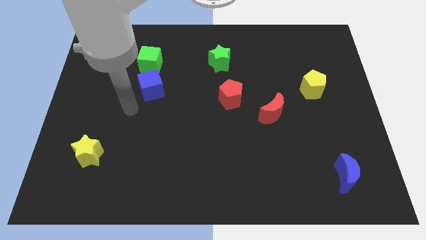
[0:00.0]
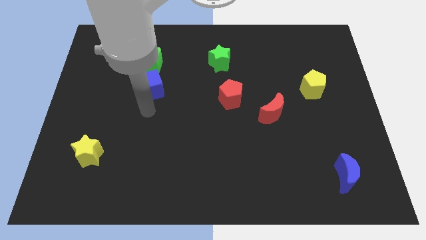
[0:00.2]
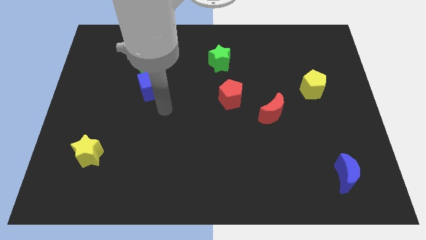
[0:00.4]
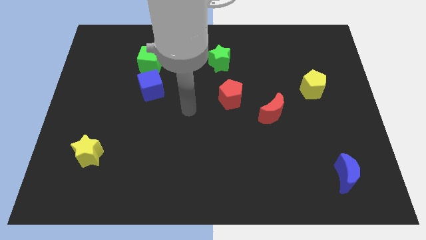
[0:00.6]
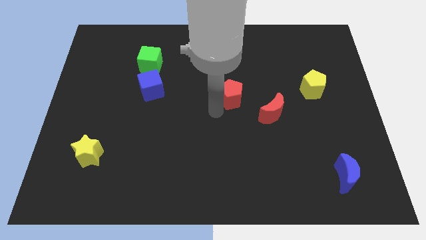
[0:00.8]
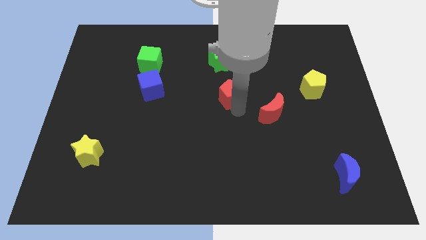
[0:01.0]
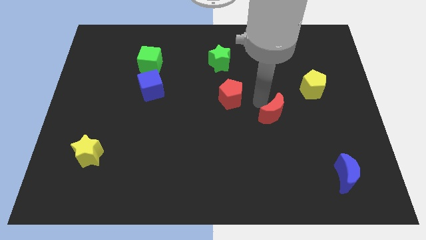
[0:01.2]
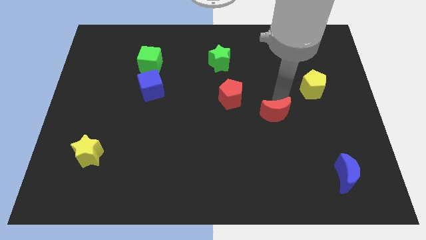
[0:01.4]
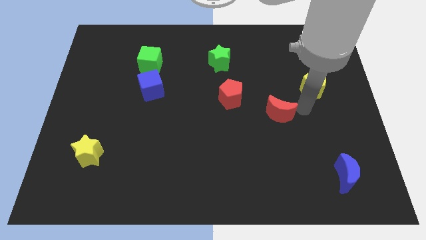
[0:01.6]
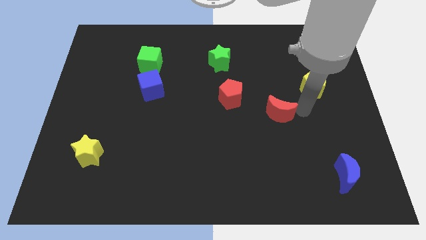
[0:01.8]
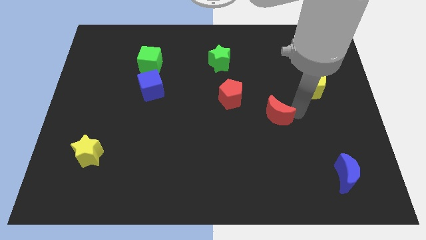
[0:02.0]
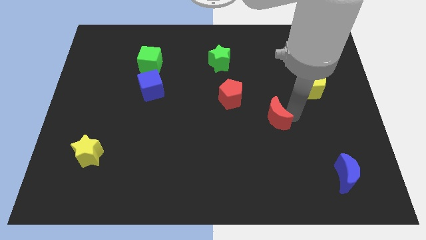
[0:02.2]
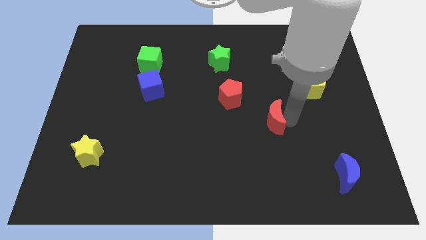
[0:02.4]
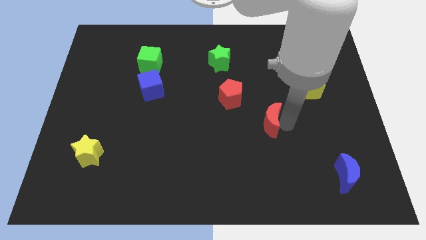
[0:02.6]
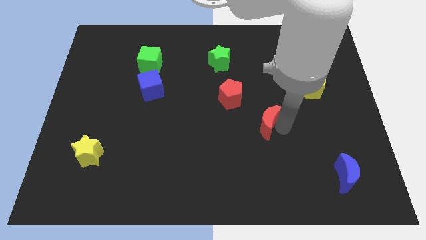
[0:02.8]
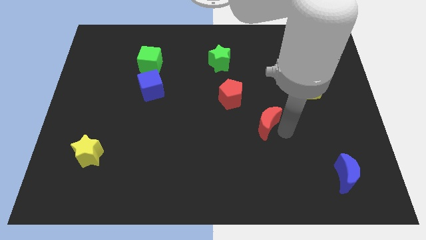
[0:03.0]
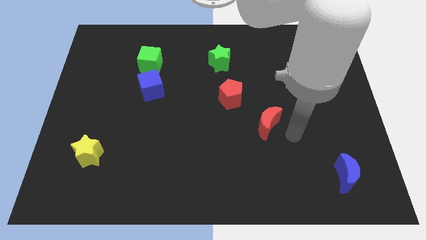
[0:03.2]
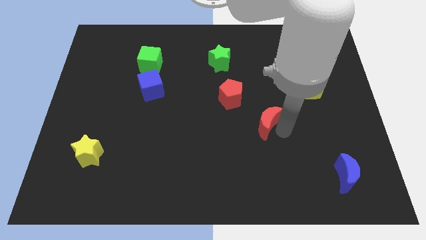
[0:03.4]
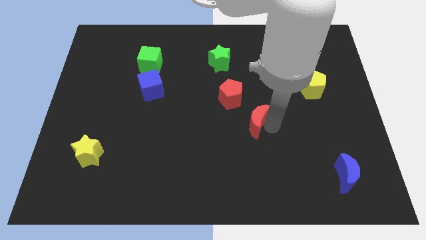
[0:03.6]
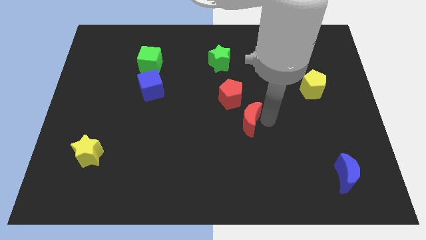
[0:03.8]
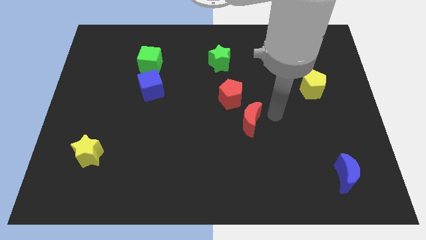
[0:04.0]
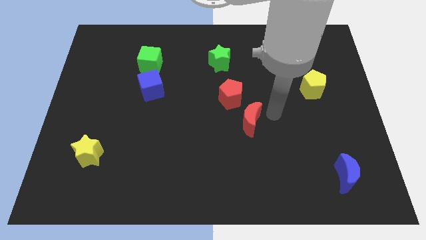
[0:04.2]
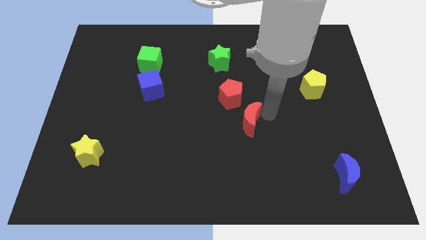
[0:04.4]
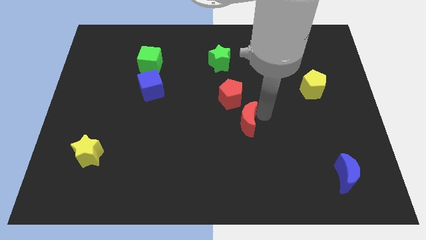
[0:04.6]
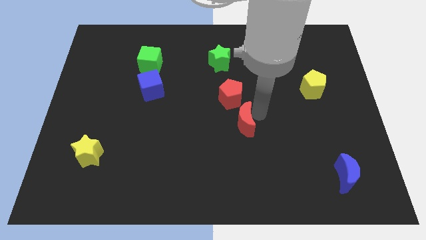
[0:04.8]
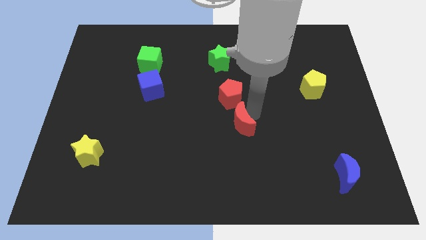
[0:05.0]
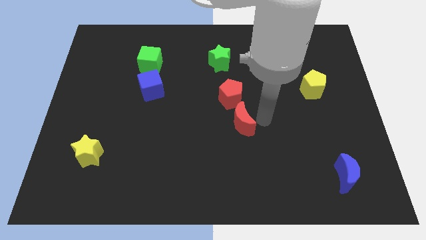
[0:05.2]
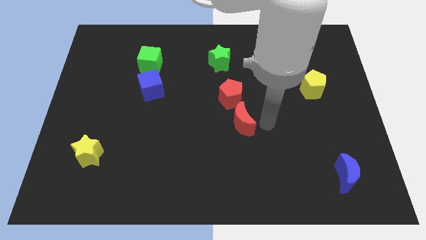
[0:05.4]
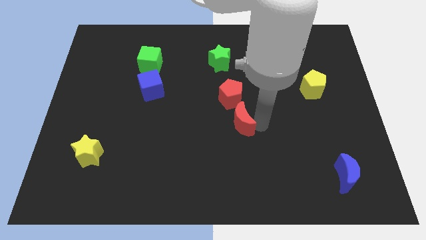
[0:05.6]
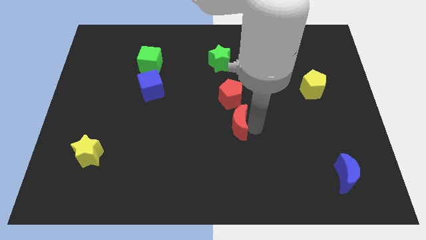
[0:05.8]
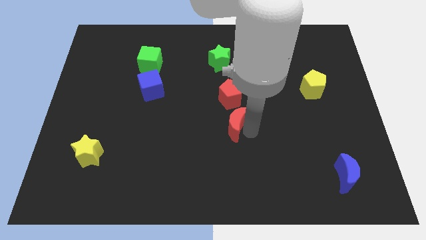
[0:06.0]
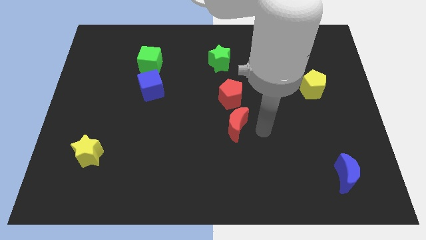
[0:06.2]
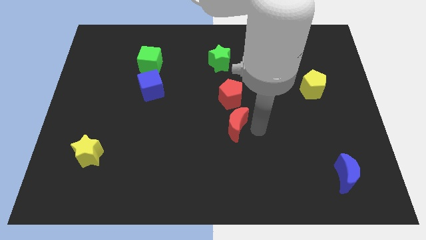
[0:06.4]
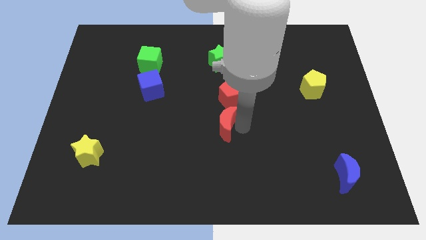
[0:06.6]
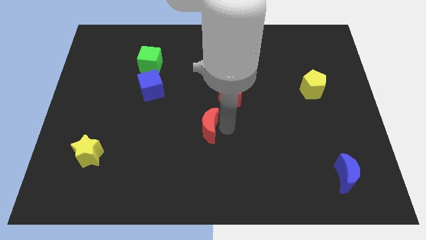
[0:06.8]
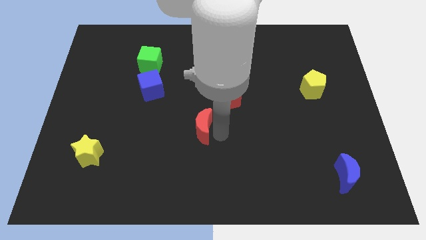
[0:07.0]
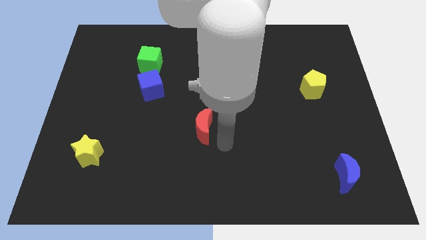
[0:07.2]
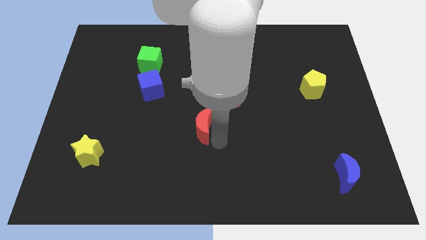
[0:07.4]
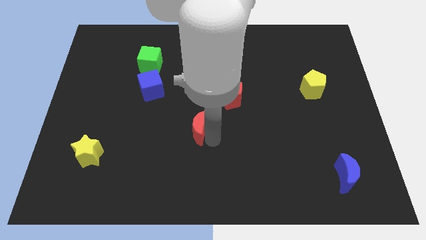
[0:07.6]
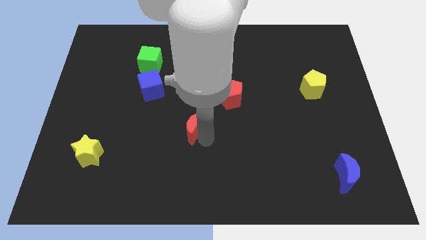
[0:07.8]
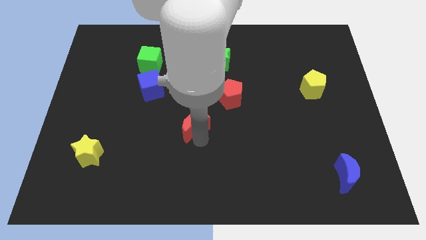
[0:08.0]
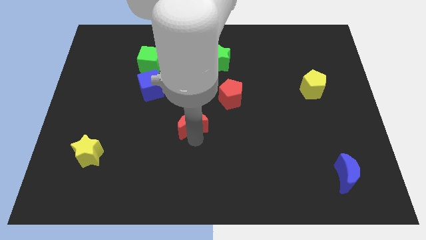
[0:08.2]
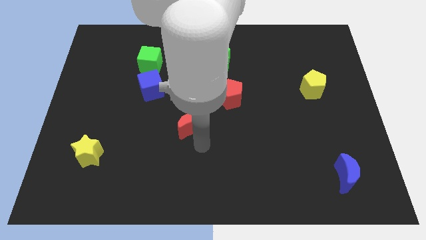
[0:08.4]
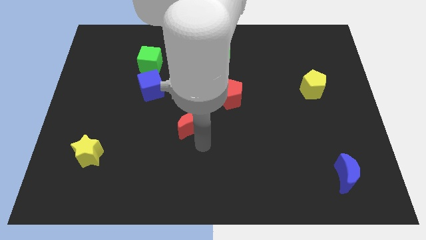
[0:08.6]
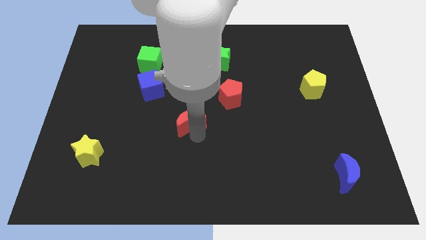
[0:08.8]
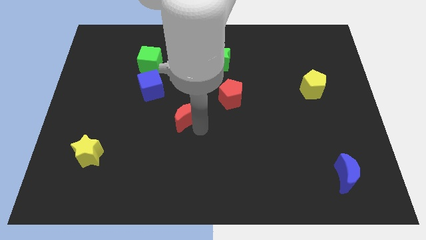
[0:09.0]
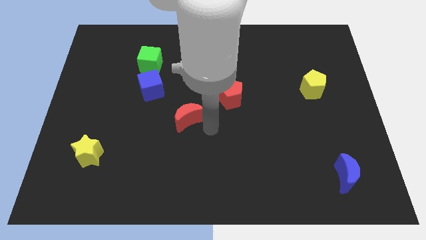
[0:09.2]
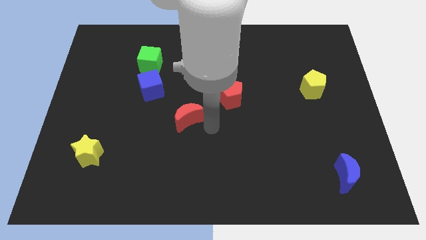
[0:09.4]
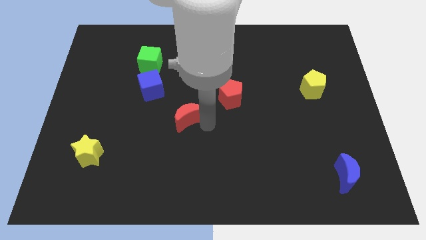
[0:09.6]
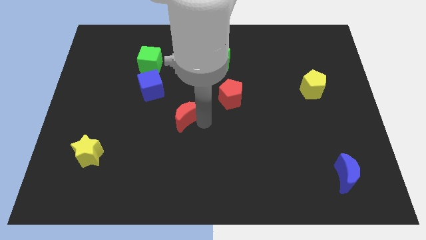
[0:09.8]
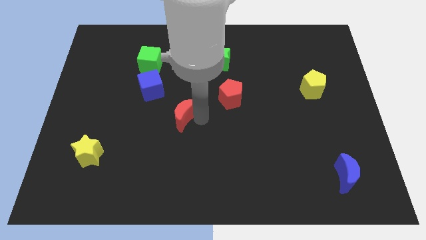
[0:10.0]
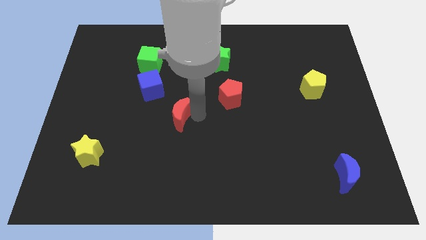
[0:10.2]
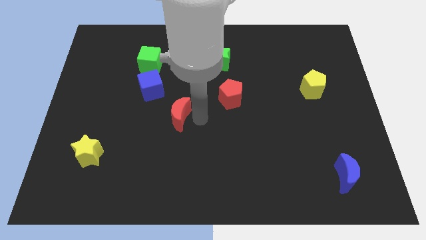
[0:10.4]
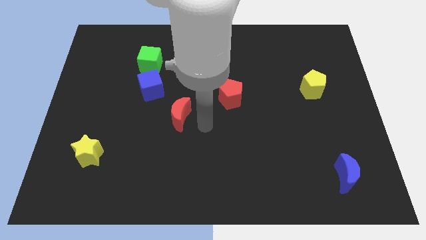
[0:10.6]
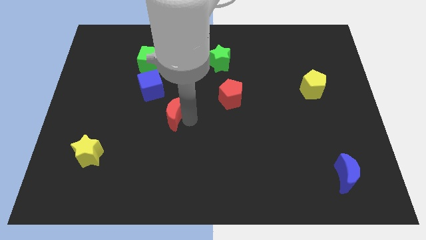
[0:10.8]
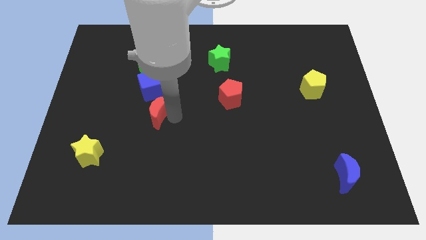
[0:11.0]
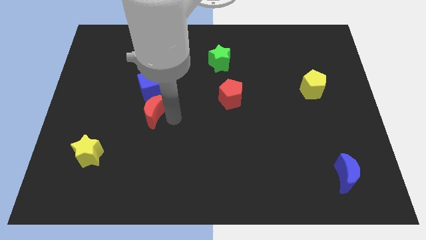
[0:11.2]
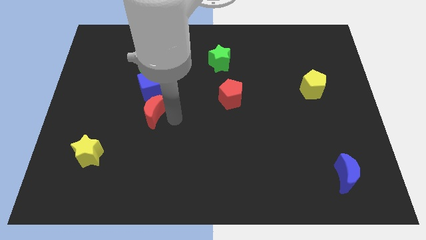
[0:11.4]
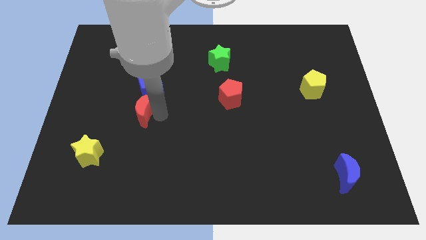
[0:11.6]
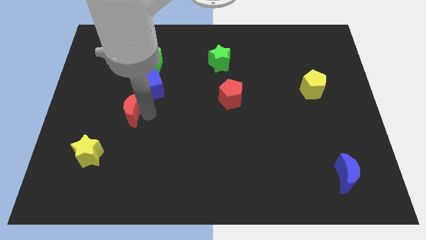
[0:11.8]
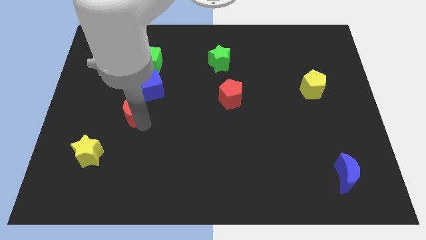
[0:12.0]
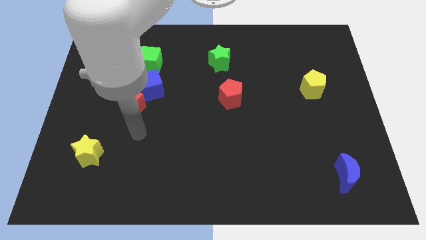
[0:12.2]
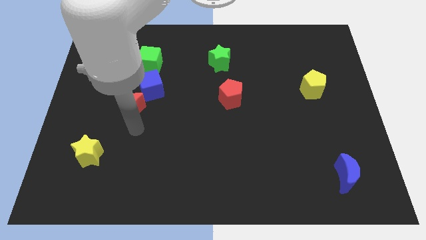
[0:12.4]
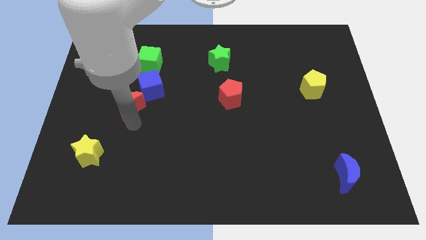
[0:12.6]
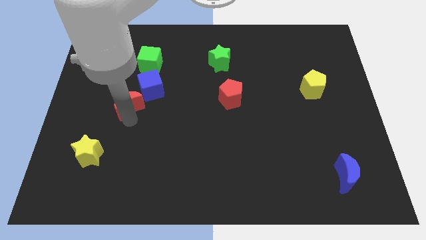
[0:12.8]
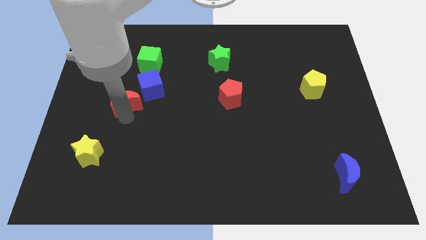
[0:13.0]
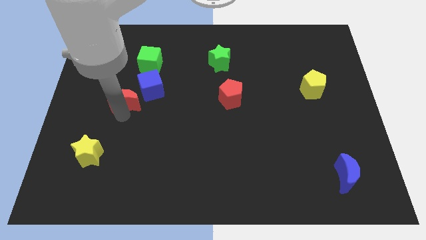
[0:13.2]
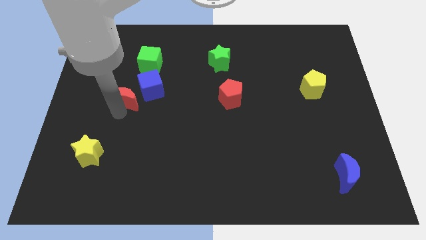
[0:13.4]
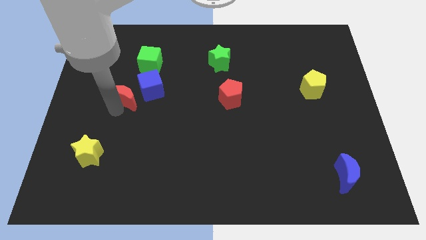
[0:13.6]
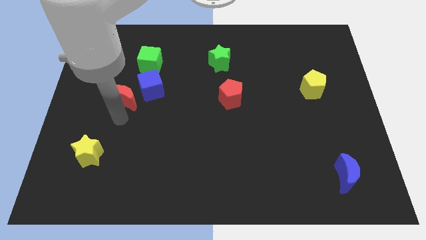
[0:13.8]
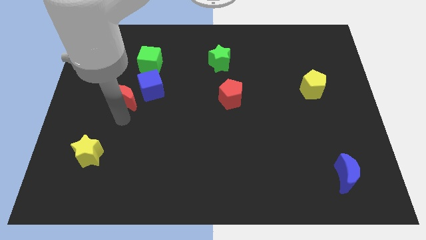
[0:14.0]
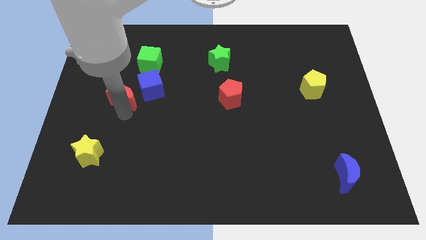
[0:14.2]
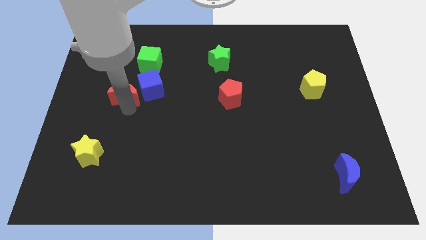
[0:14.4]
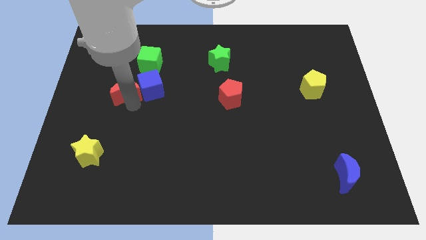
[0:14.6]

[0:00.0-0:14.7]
push the red moon diagonally down and to the left of the green cube
